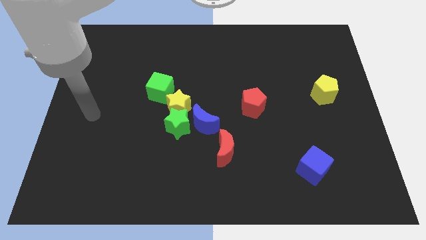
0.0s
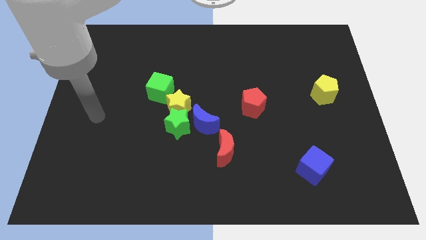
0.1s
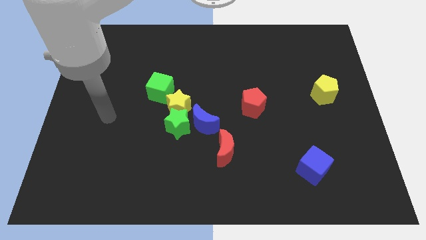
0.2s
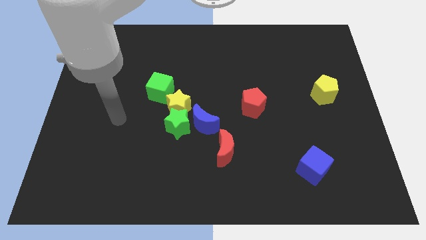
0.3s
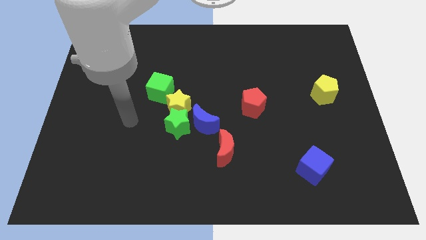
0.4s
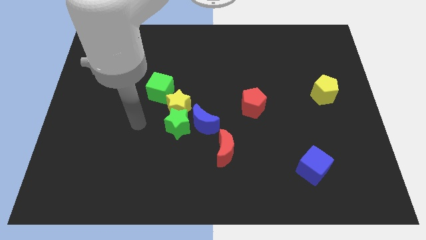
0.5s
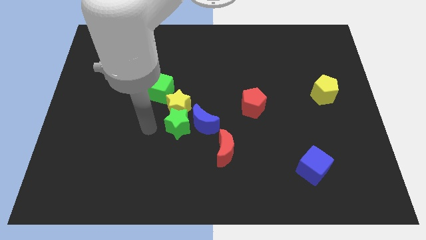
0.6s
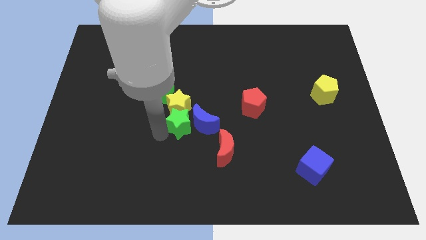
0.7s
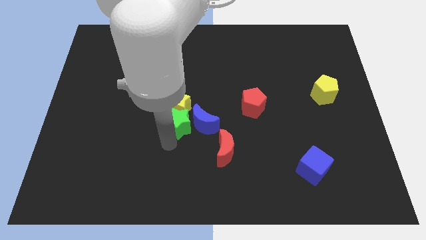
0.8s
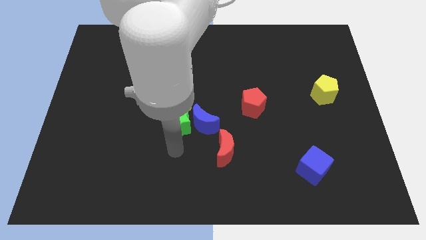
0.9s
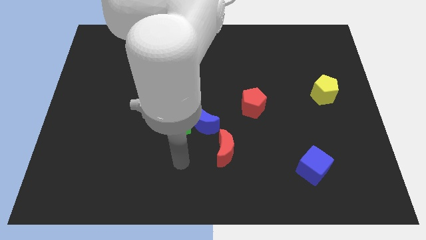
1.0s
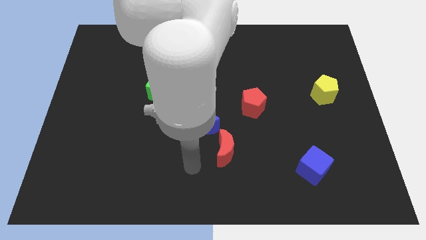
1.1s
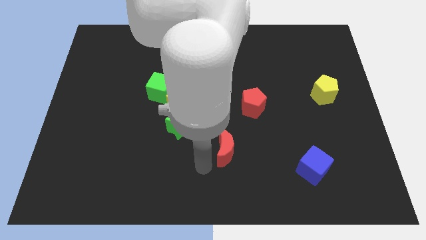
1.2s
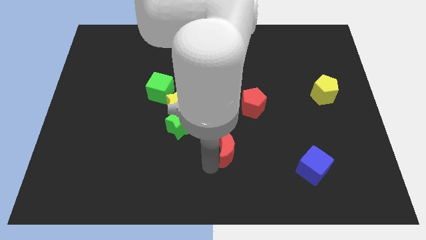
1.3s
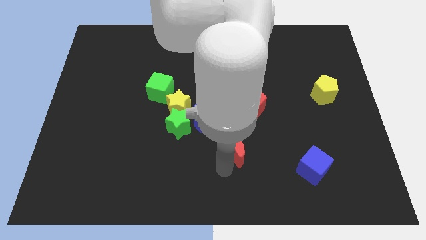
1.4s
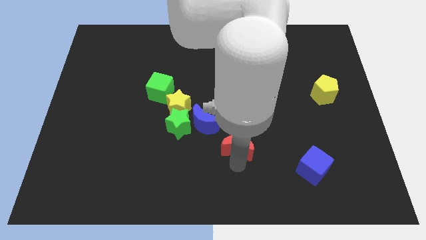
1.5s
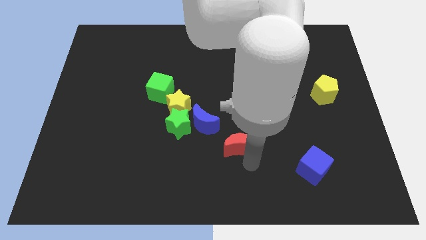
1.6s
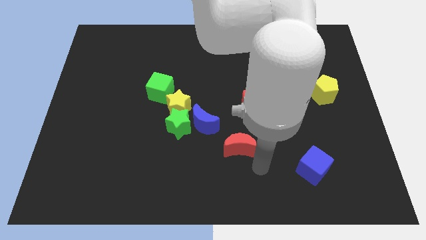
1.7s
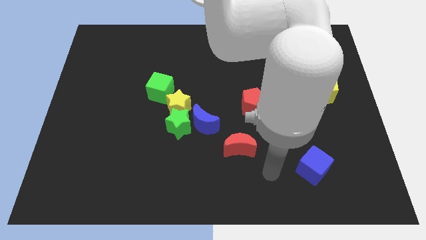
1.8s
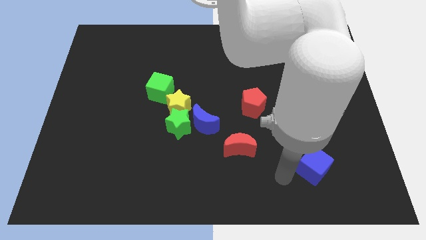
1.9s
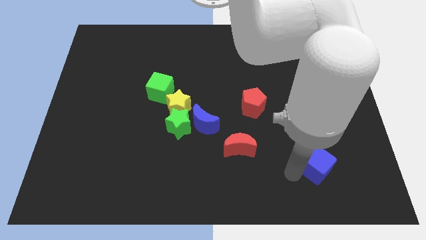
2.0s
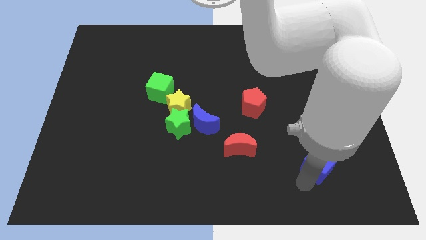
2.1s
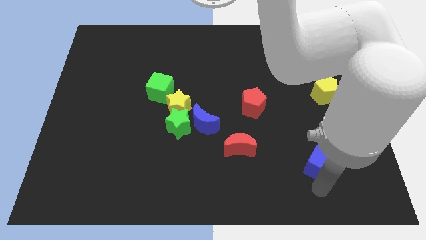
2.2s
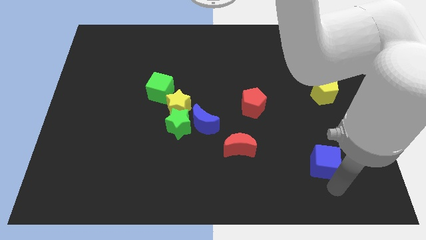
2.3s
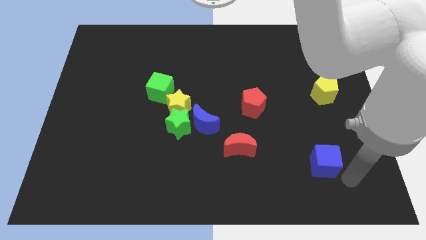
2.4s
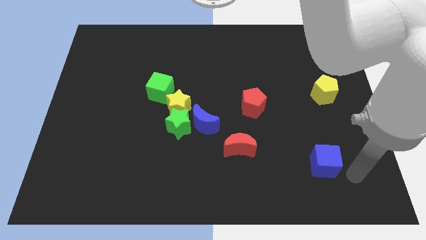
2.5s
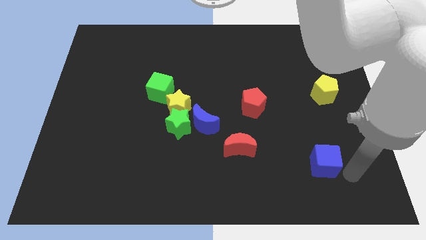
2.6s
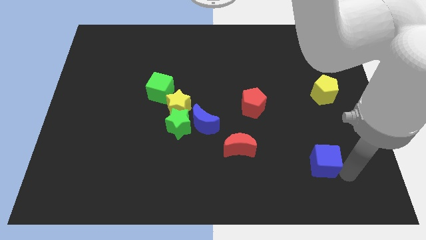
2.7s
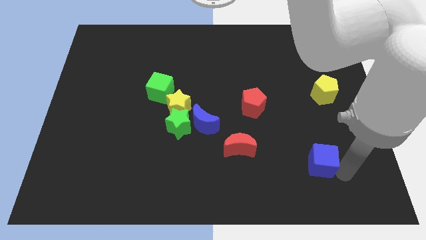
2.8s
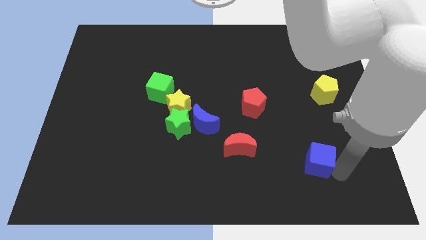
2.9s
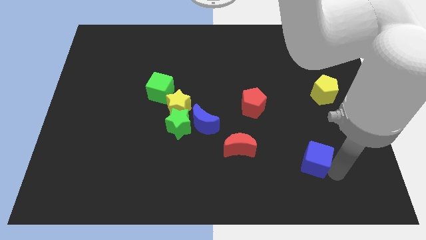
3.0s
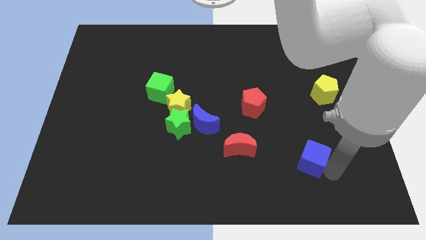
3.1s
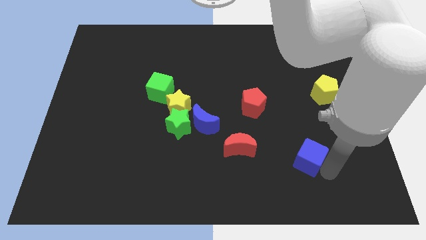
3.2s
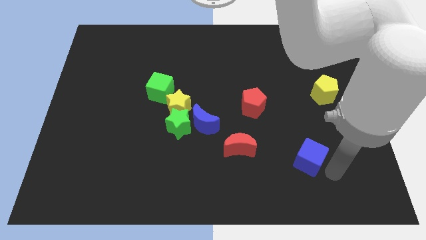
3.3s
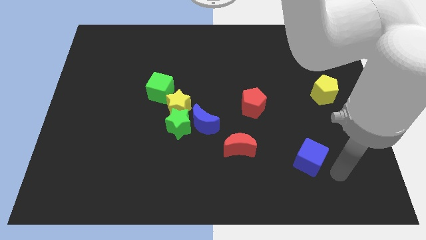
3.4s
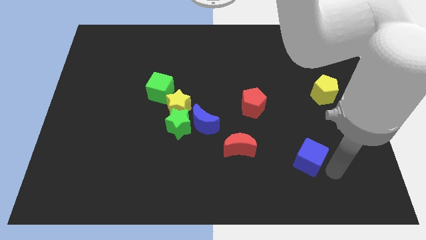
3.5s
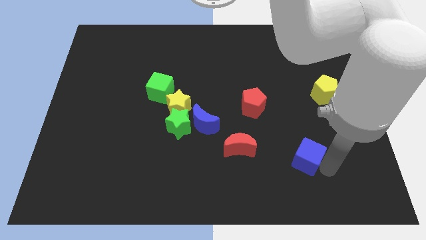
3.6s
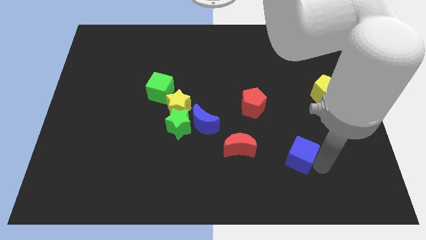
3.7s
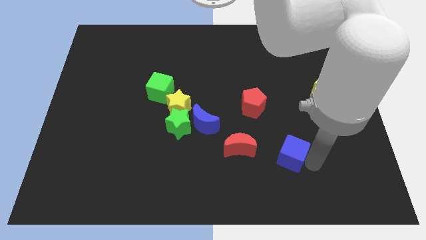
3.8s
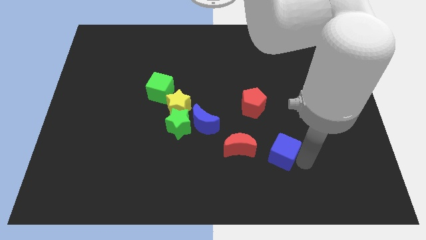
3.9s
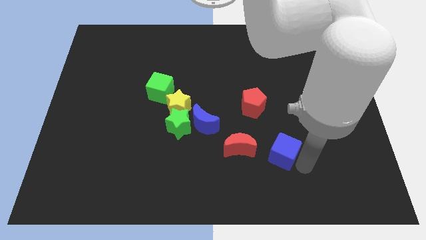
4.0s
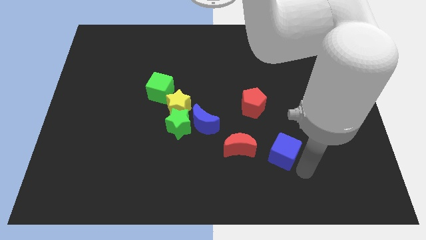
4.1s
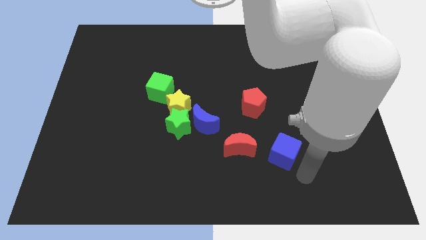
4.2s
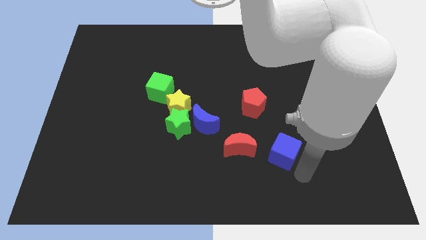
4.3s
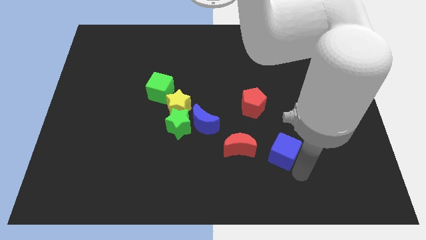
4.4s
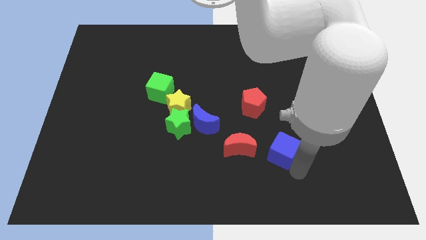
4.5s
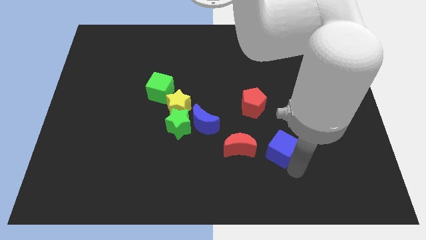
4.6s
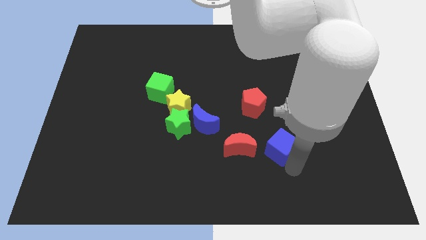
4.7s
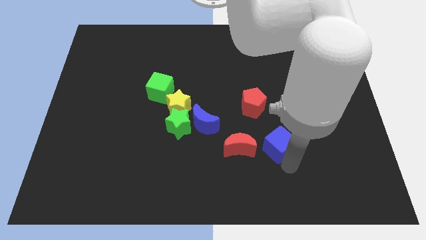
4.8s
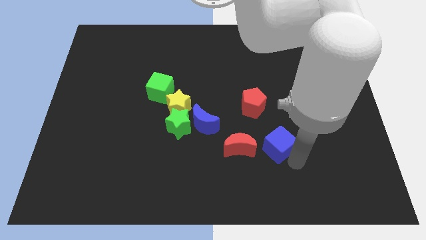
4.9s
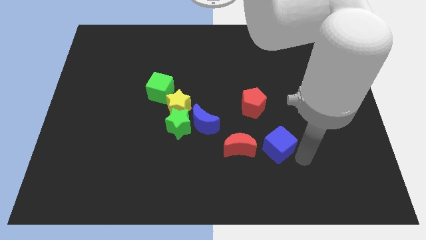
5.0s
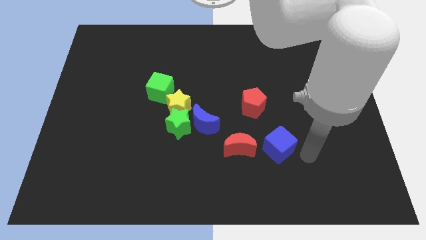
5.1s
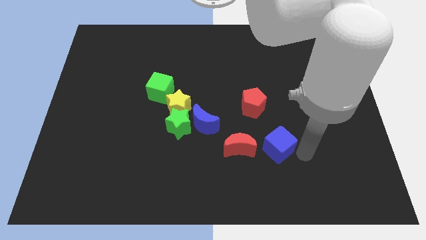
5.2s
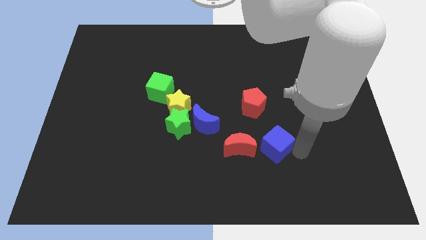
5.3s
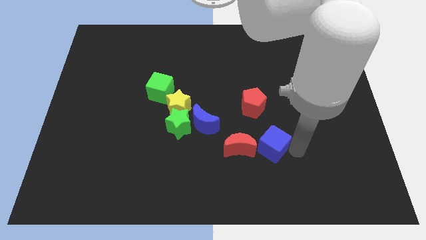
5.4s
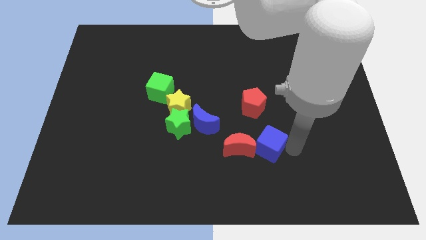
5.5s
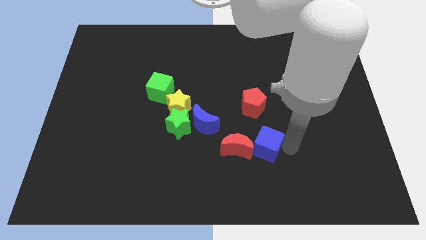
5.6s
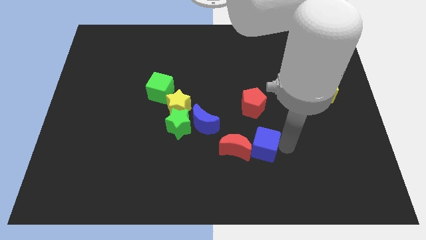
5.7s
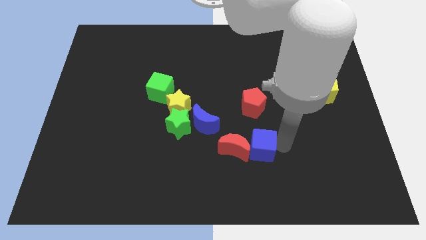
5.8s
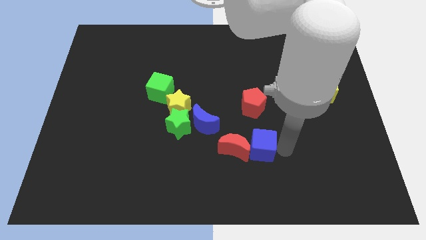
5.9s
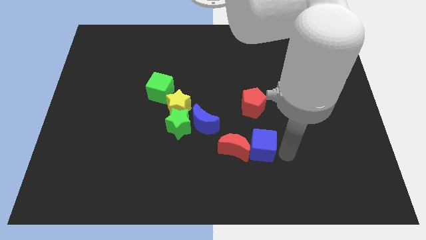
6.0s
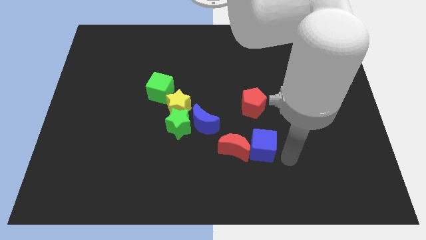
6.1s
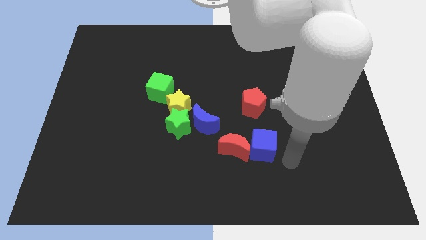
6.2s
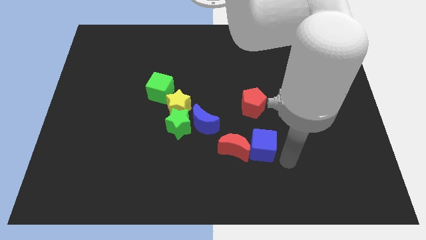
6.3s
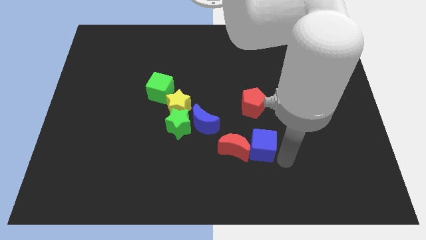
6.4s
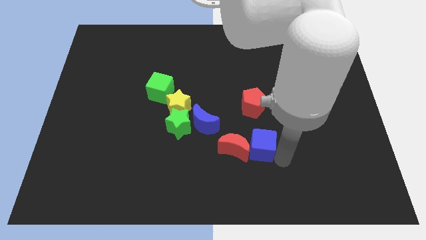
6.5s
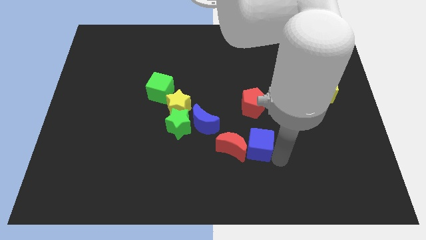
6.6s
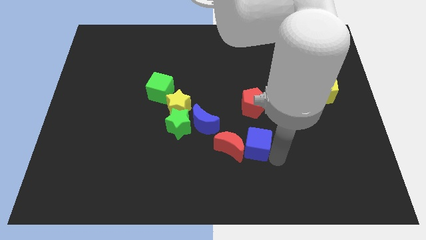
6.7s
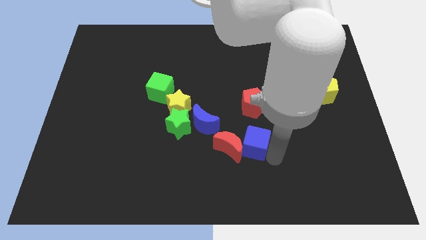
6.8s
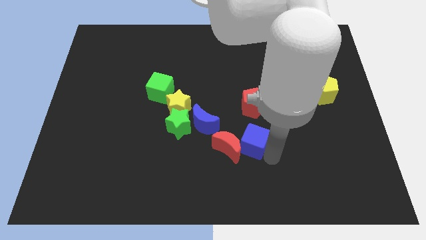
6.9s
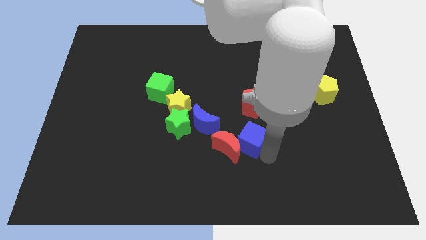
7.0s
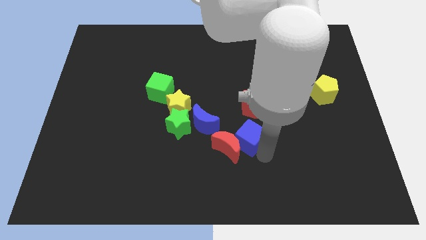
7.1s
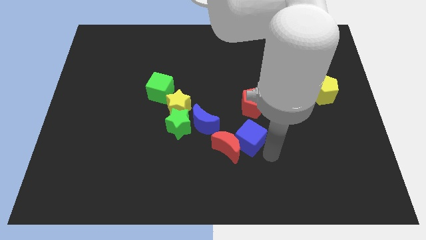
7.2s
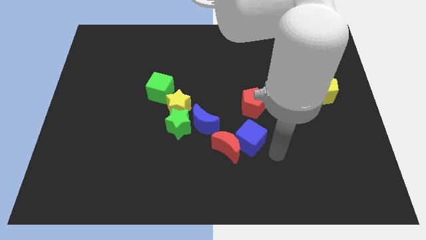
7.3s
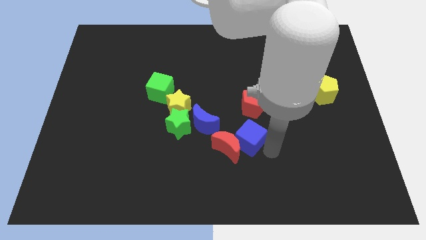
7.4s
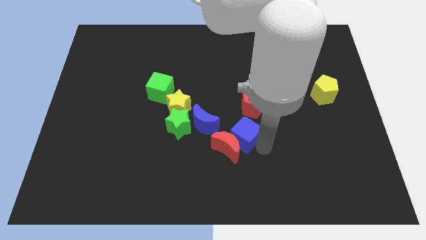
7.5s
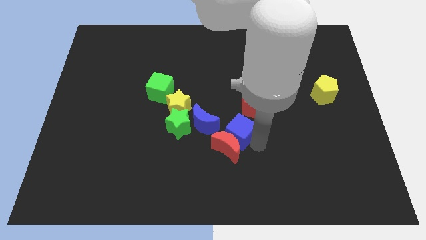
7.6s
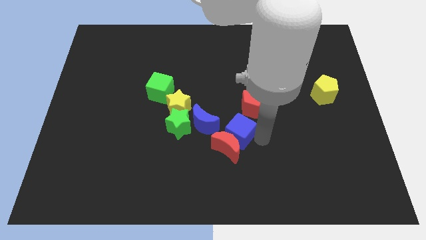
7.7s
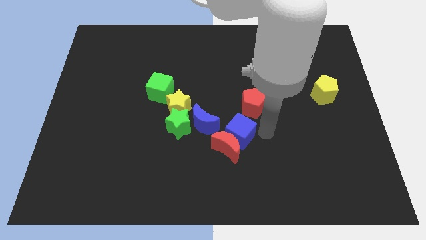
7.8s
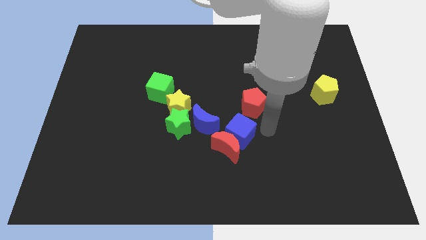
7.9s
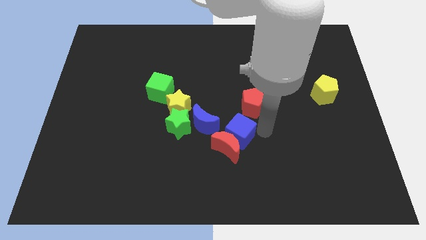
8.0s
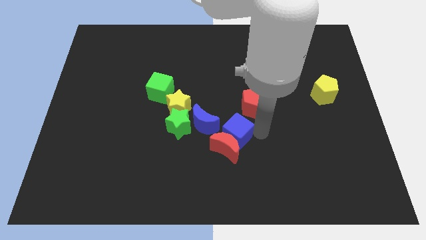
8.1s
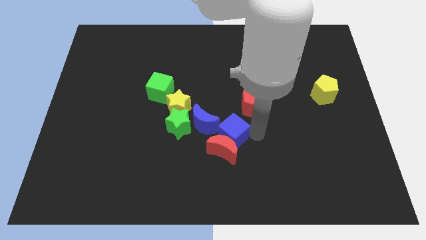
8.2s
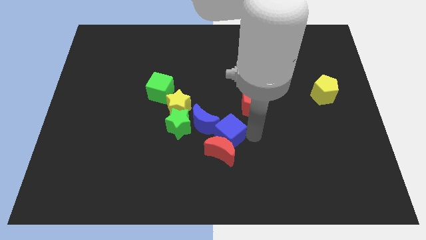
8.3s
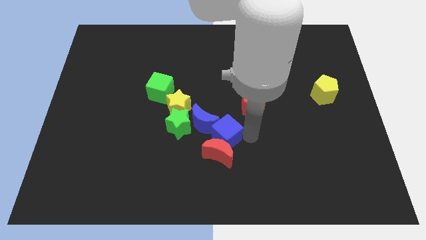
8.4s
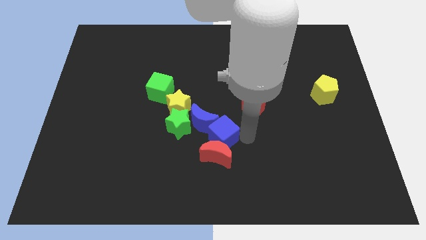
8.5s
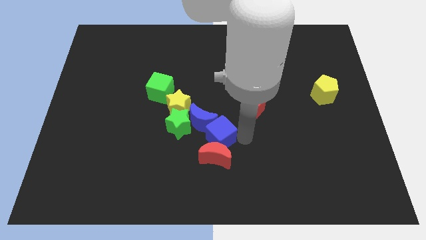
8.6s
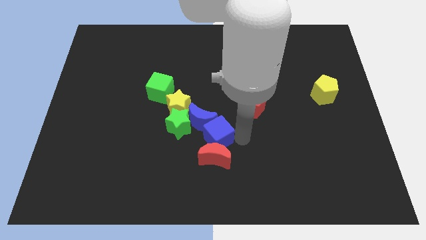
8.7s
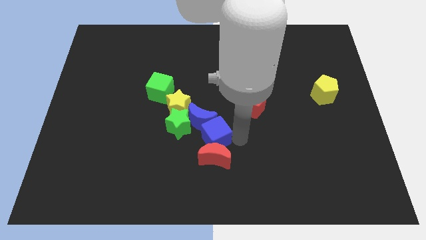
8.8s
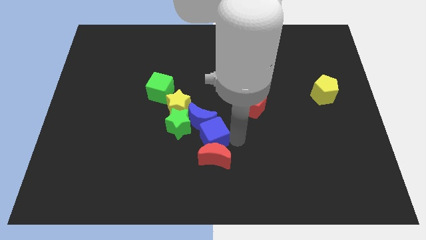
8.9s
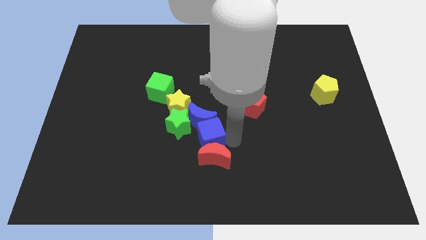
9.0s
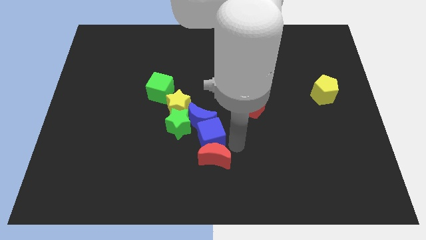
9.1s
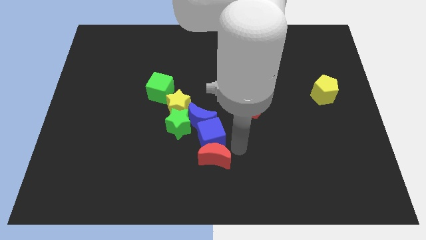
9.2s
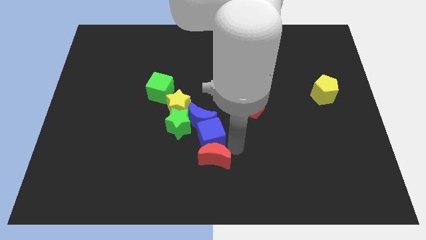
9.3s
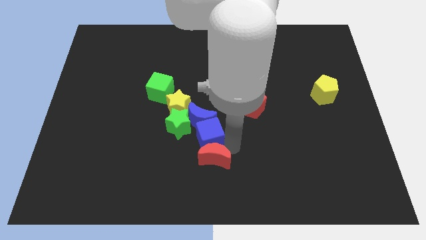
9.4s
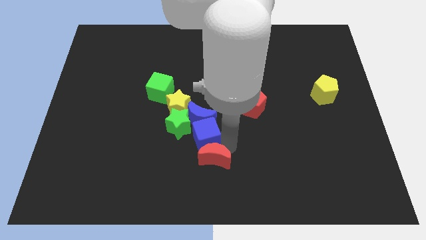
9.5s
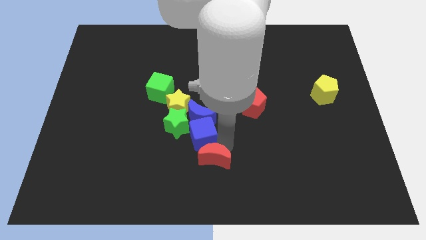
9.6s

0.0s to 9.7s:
push the blue cube to the green star
